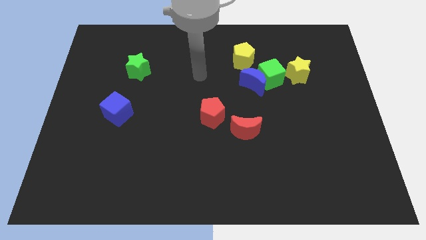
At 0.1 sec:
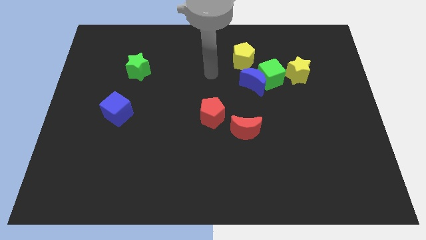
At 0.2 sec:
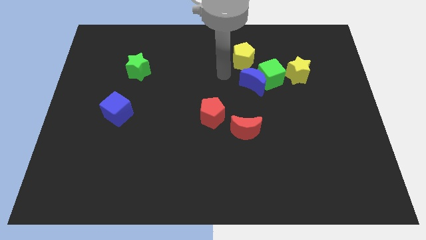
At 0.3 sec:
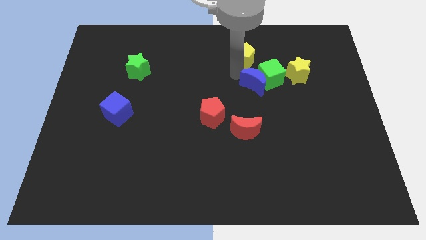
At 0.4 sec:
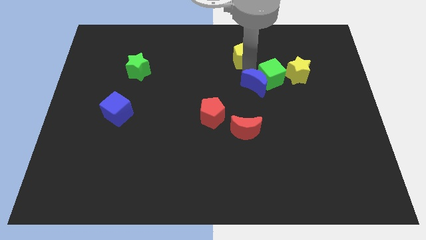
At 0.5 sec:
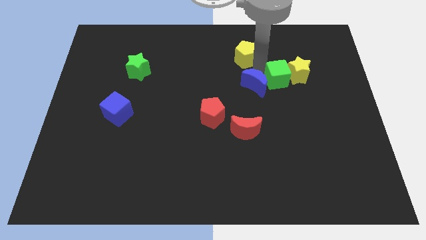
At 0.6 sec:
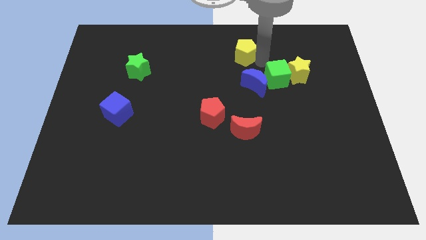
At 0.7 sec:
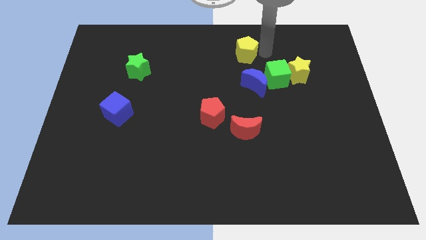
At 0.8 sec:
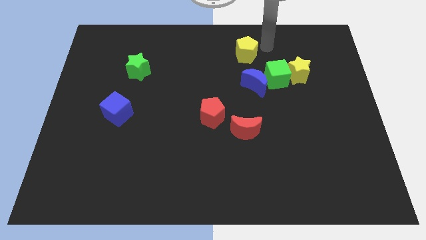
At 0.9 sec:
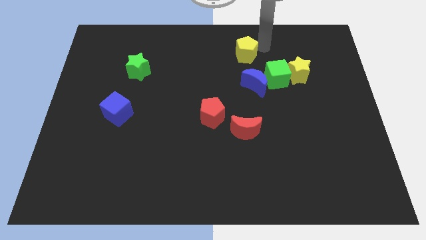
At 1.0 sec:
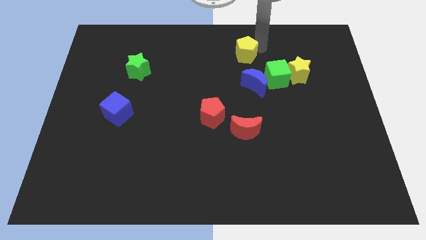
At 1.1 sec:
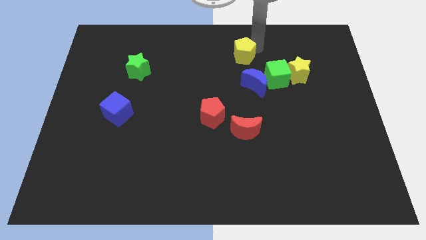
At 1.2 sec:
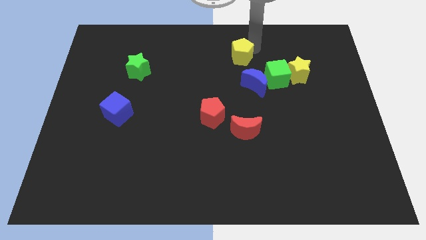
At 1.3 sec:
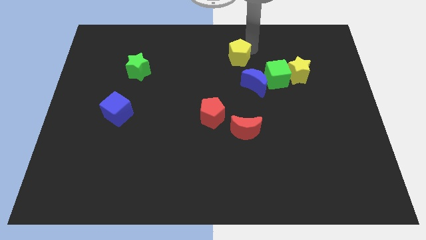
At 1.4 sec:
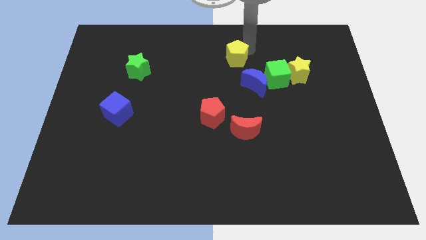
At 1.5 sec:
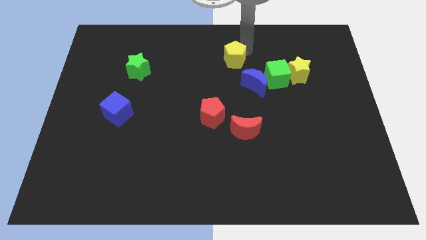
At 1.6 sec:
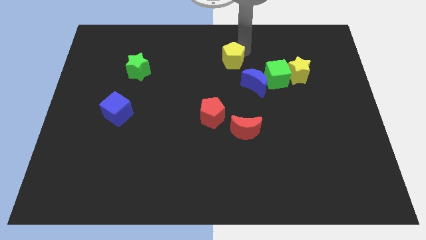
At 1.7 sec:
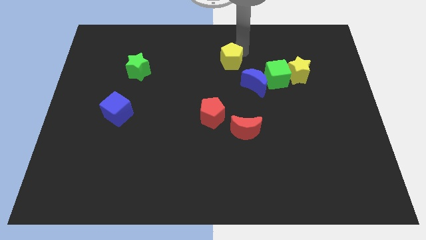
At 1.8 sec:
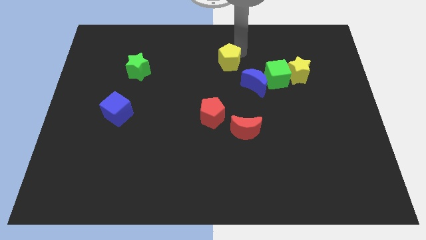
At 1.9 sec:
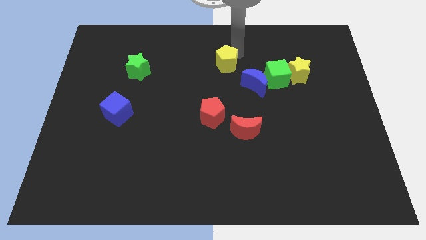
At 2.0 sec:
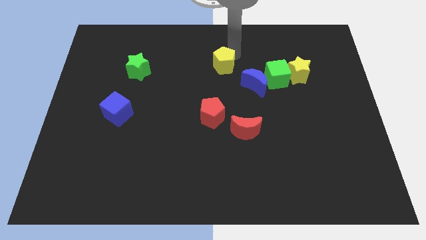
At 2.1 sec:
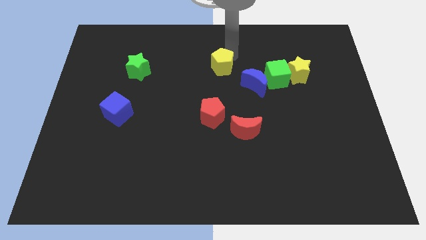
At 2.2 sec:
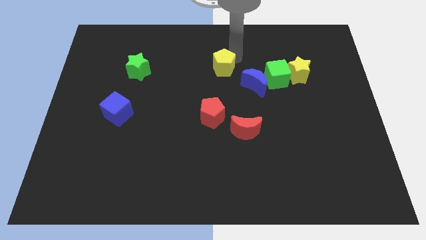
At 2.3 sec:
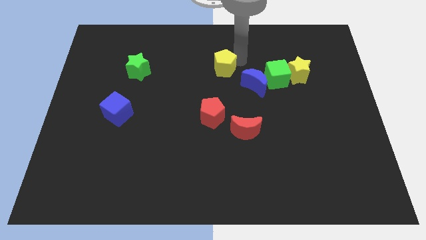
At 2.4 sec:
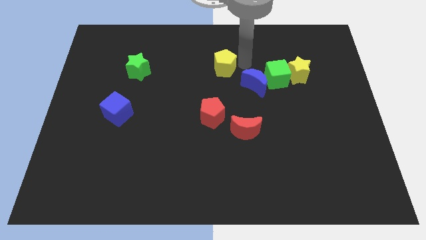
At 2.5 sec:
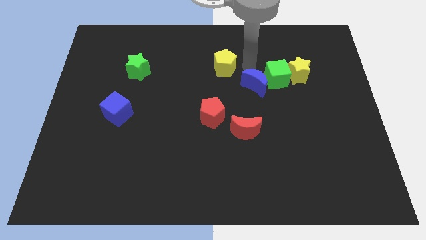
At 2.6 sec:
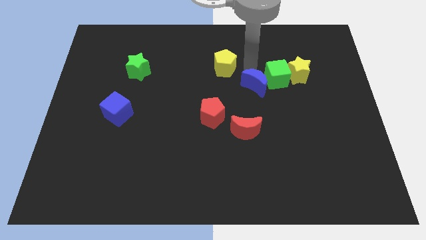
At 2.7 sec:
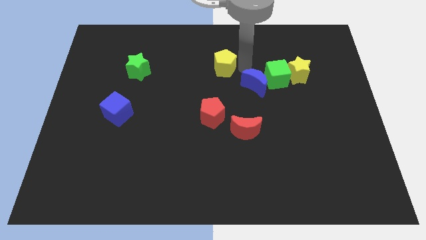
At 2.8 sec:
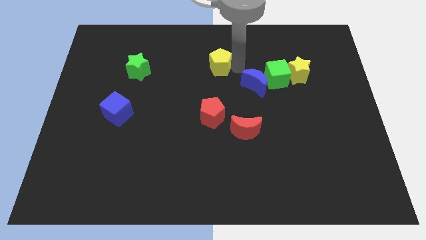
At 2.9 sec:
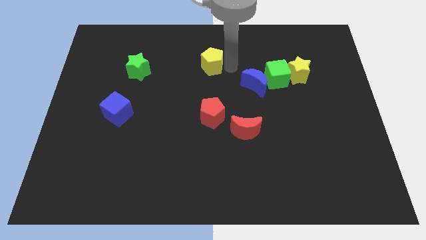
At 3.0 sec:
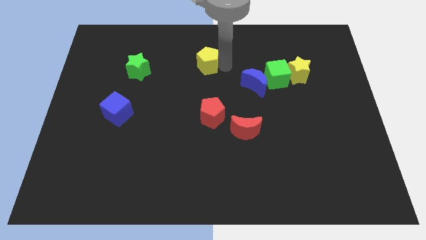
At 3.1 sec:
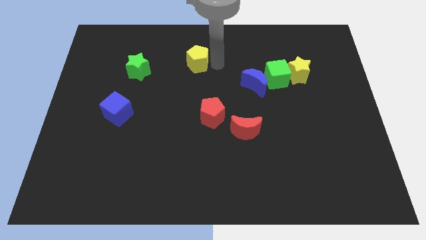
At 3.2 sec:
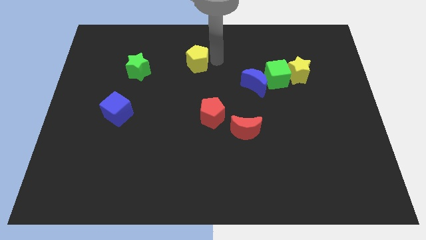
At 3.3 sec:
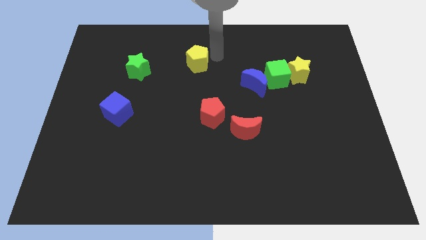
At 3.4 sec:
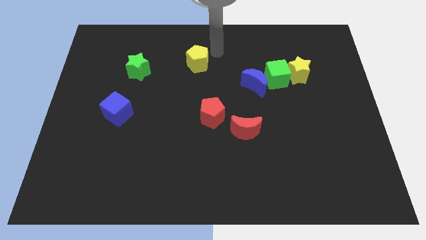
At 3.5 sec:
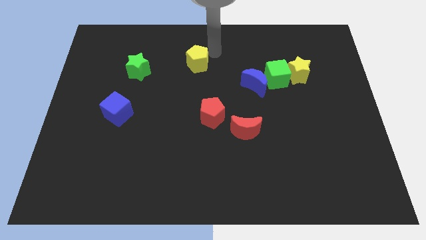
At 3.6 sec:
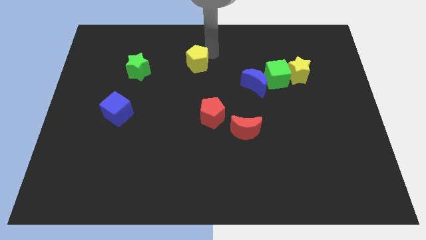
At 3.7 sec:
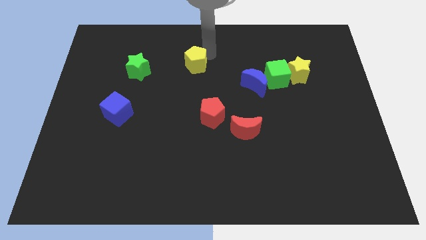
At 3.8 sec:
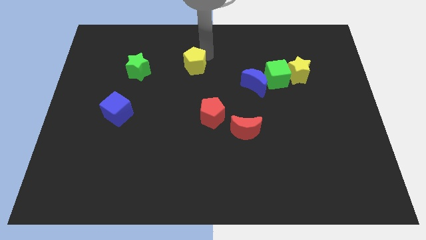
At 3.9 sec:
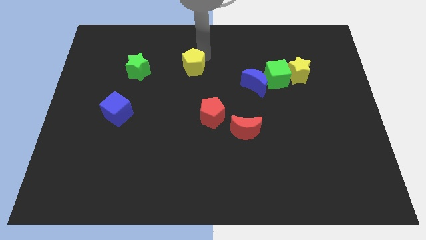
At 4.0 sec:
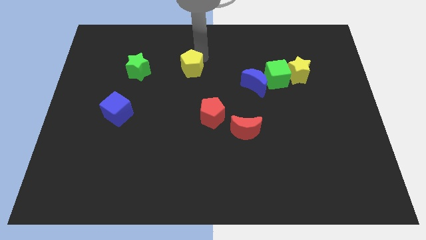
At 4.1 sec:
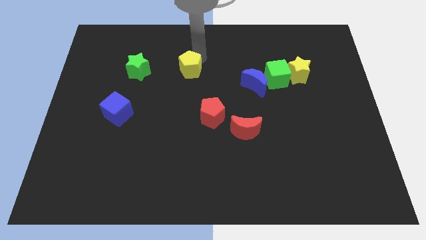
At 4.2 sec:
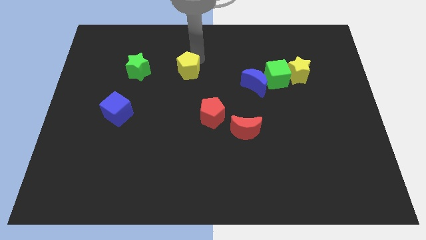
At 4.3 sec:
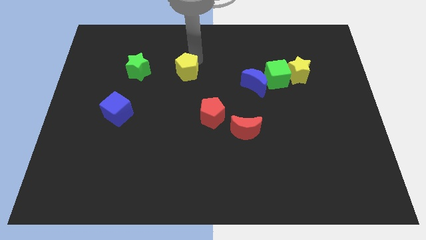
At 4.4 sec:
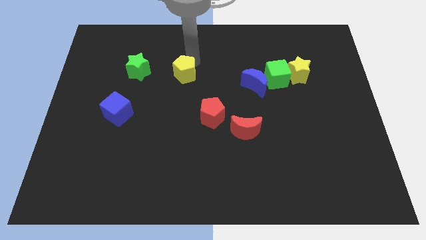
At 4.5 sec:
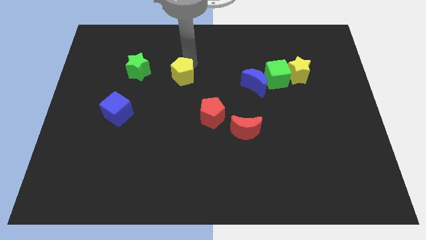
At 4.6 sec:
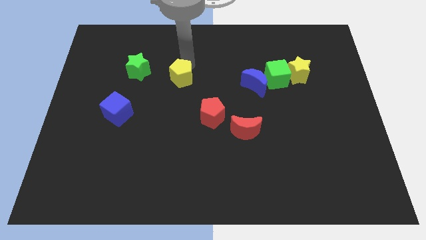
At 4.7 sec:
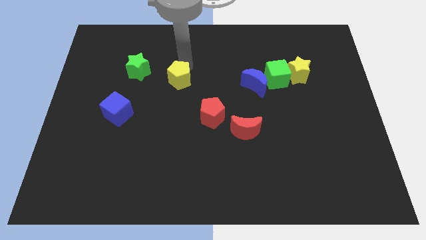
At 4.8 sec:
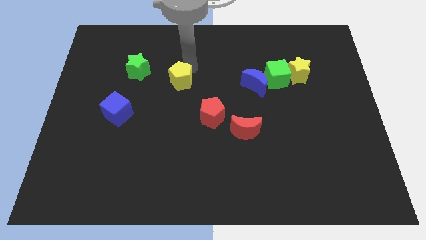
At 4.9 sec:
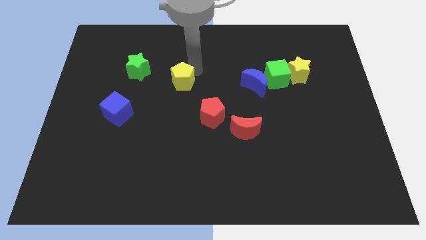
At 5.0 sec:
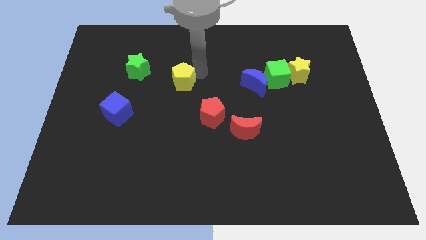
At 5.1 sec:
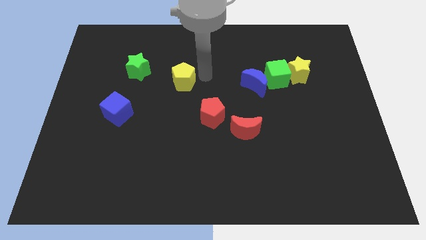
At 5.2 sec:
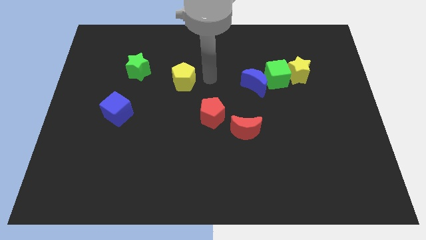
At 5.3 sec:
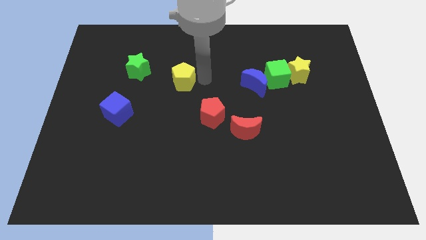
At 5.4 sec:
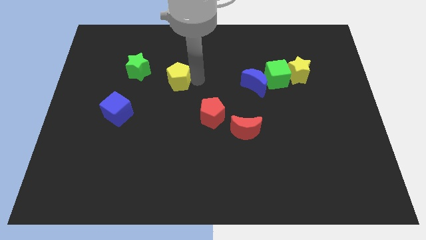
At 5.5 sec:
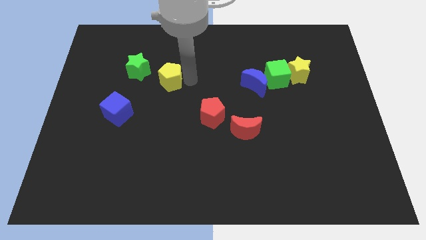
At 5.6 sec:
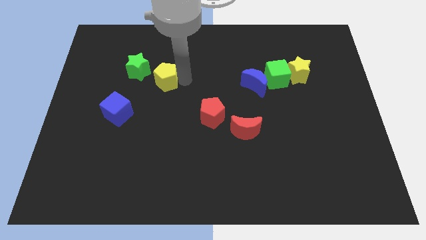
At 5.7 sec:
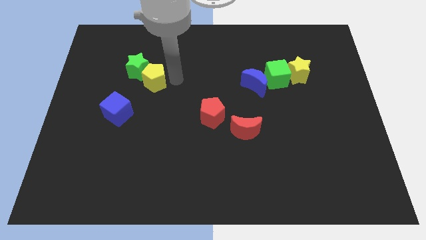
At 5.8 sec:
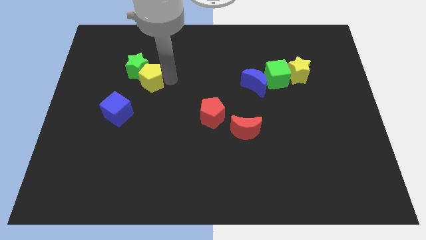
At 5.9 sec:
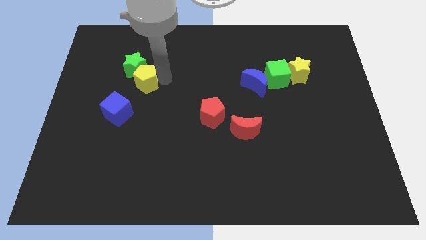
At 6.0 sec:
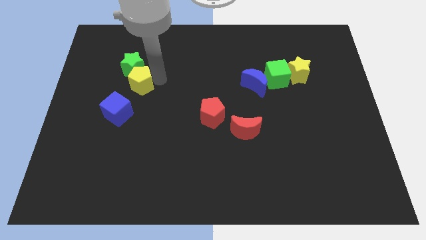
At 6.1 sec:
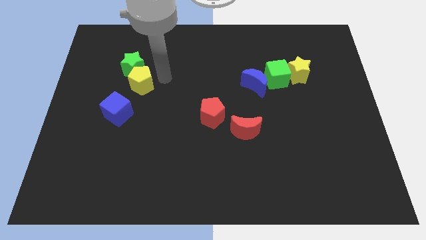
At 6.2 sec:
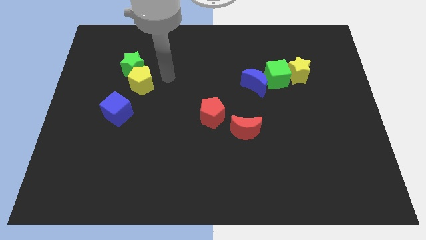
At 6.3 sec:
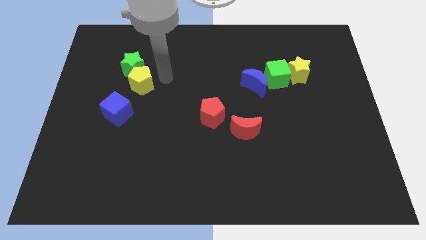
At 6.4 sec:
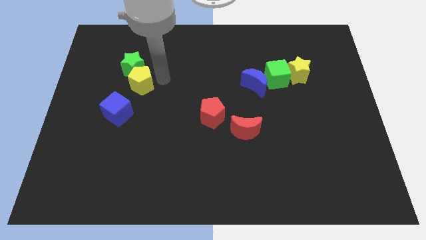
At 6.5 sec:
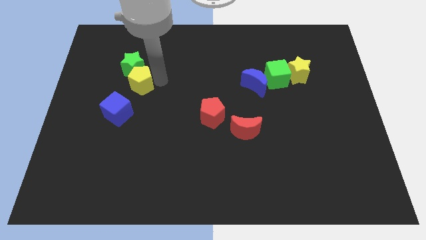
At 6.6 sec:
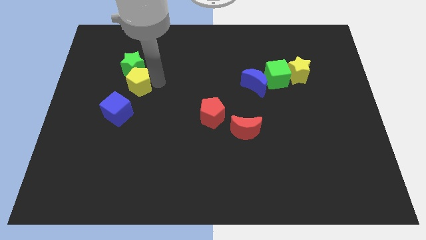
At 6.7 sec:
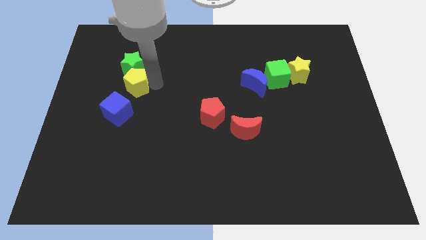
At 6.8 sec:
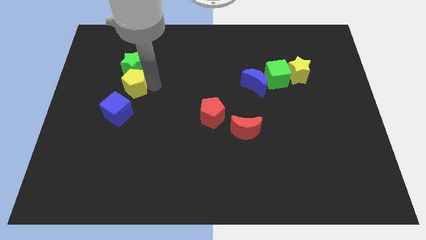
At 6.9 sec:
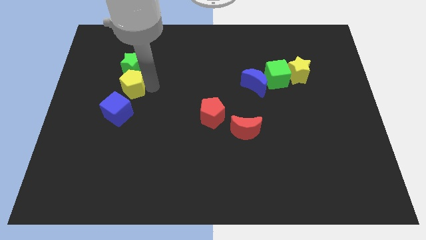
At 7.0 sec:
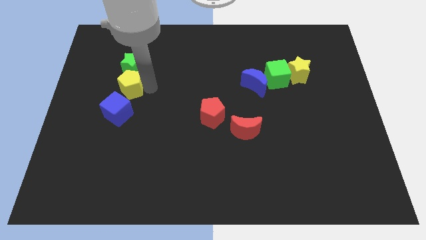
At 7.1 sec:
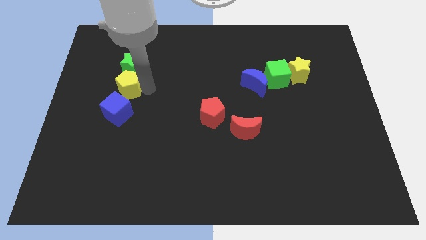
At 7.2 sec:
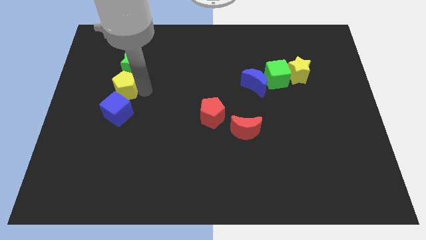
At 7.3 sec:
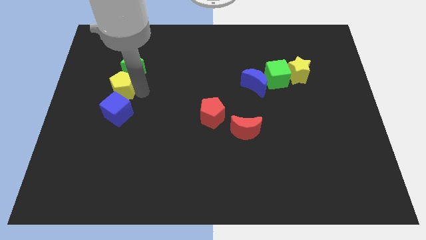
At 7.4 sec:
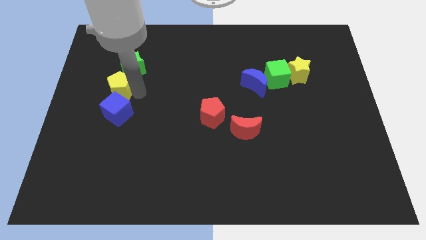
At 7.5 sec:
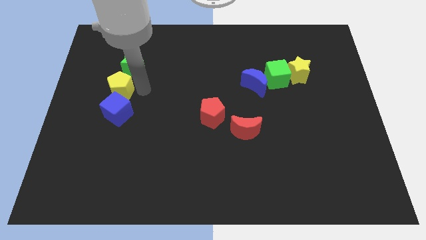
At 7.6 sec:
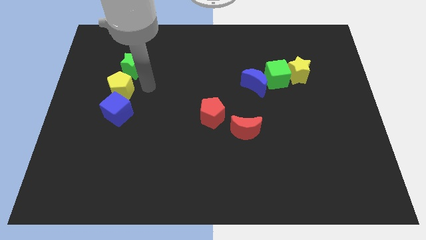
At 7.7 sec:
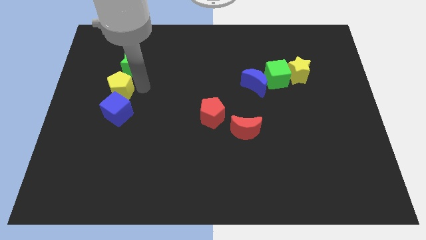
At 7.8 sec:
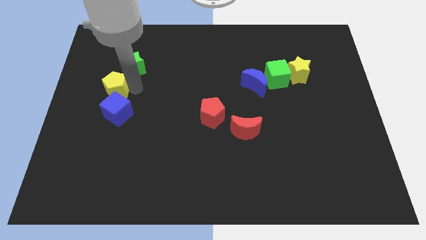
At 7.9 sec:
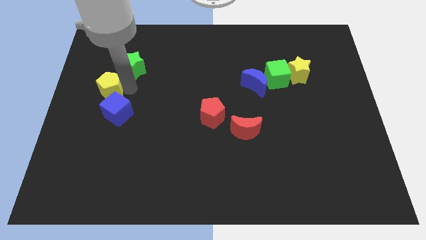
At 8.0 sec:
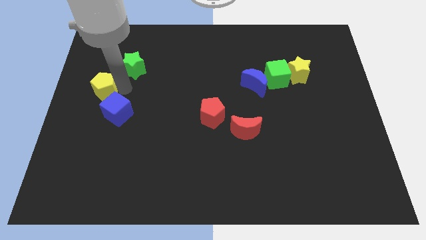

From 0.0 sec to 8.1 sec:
move the yellow pentagon to the left side
